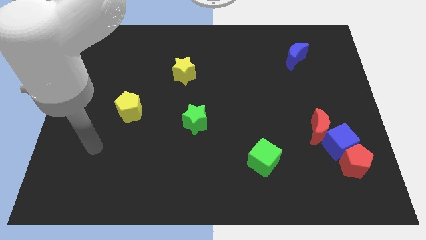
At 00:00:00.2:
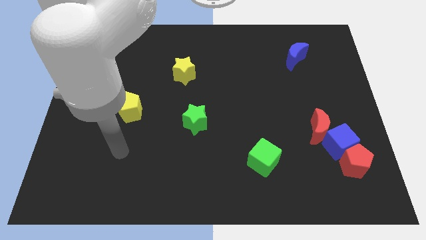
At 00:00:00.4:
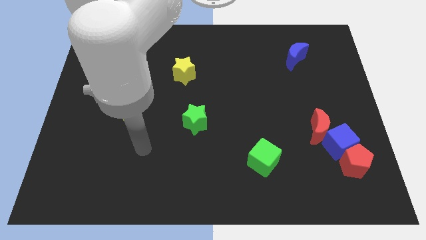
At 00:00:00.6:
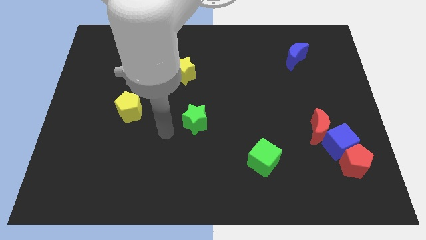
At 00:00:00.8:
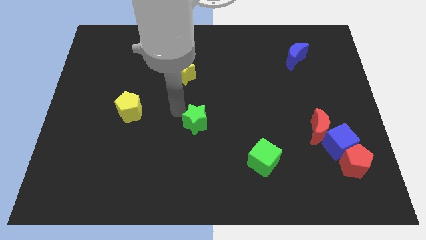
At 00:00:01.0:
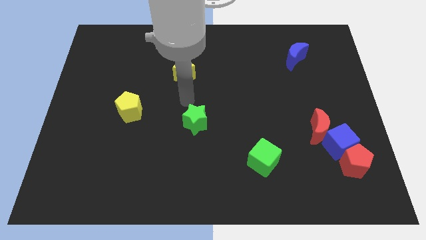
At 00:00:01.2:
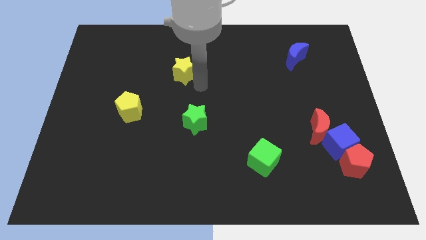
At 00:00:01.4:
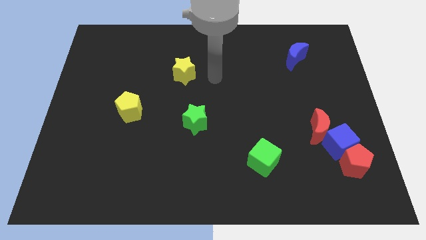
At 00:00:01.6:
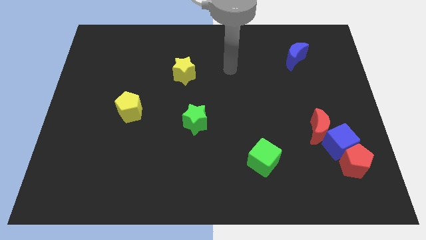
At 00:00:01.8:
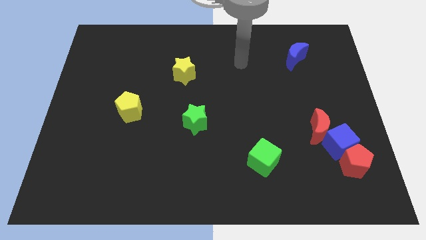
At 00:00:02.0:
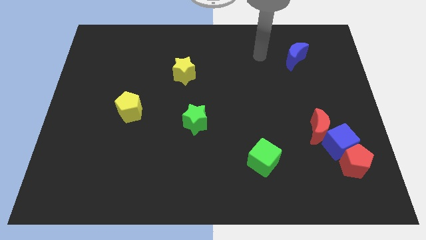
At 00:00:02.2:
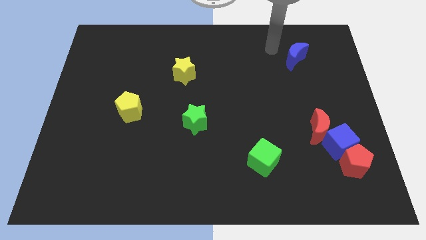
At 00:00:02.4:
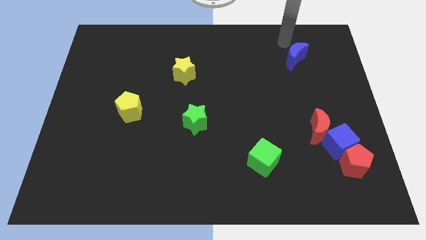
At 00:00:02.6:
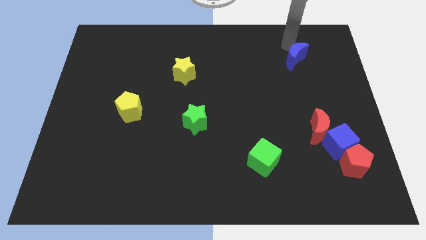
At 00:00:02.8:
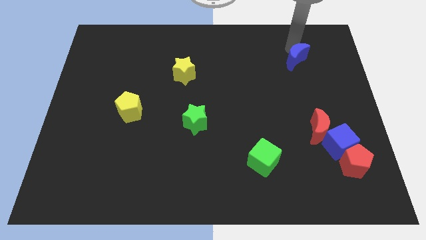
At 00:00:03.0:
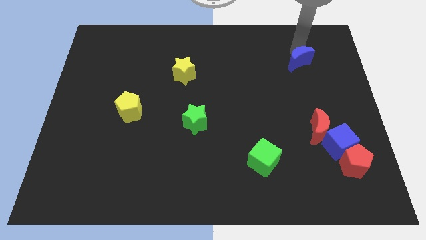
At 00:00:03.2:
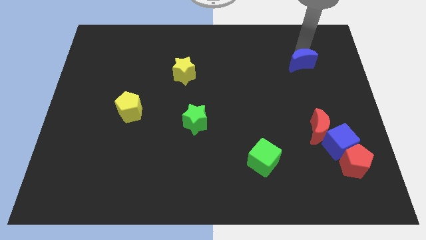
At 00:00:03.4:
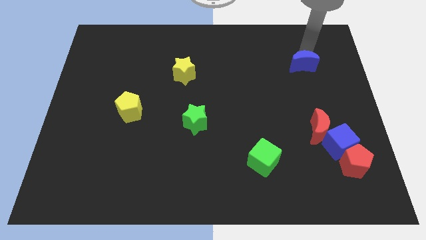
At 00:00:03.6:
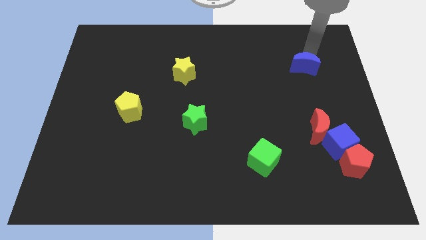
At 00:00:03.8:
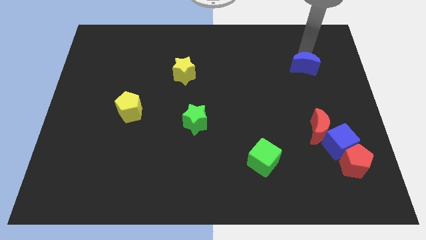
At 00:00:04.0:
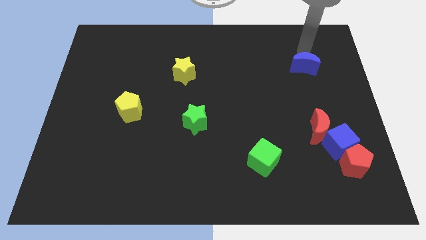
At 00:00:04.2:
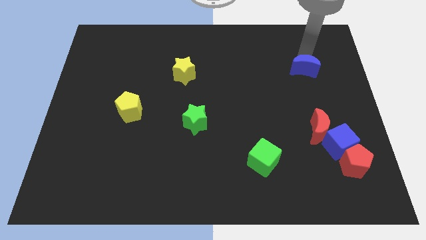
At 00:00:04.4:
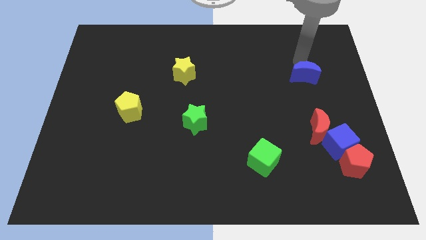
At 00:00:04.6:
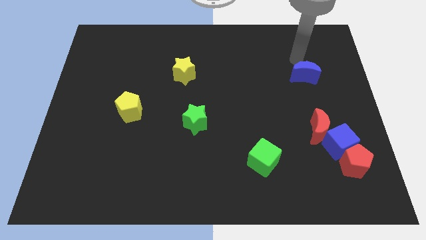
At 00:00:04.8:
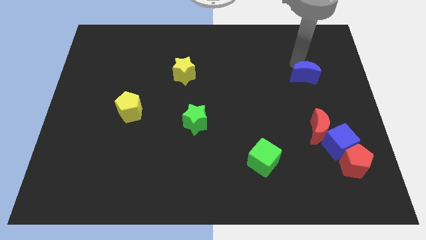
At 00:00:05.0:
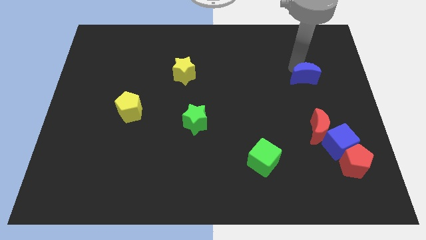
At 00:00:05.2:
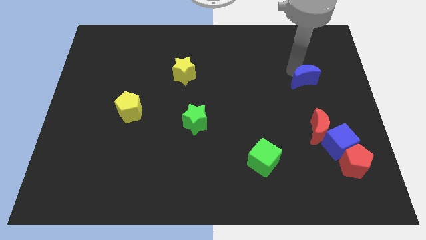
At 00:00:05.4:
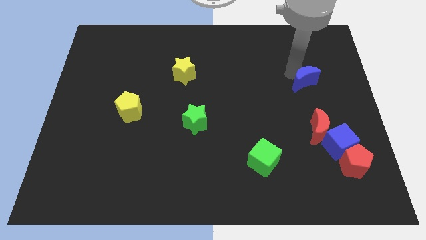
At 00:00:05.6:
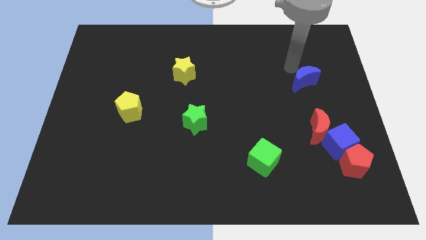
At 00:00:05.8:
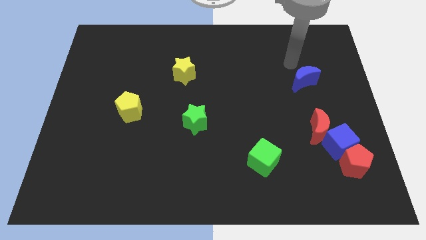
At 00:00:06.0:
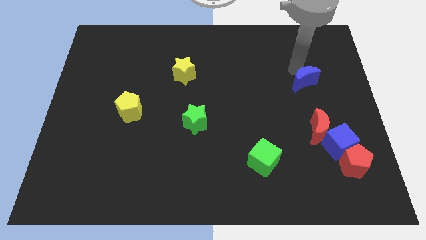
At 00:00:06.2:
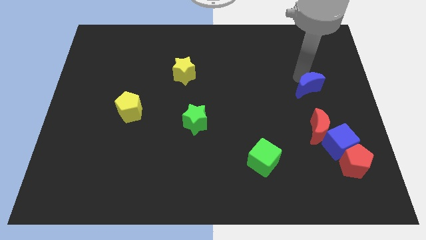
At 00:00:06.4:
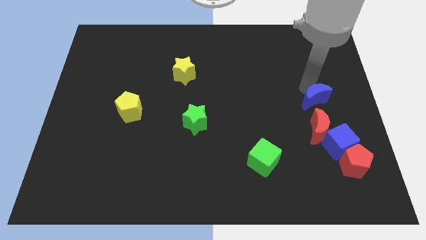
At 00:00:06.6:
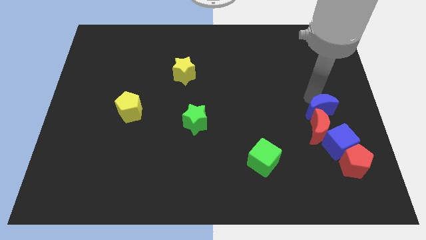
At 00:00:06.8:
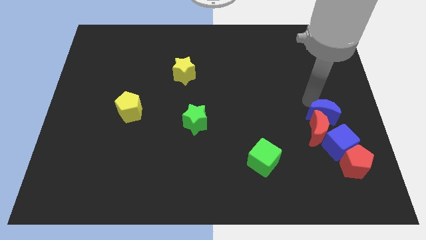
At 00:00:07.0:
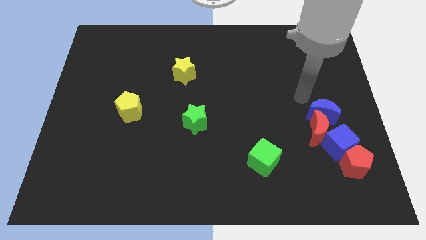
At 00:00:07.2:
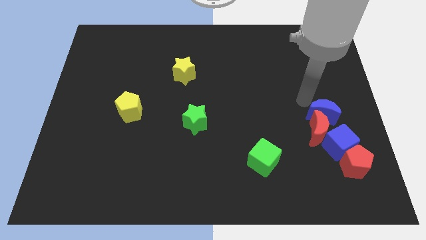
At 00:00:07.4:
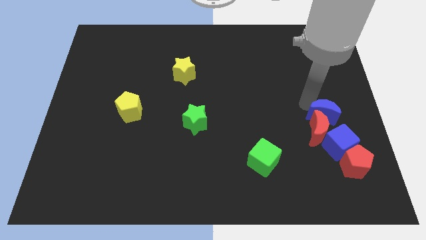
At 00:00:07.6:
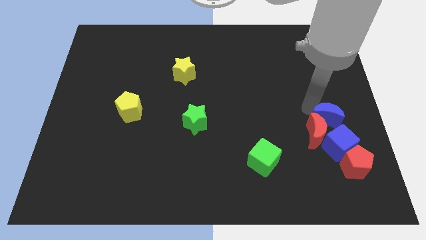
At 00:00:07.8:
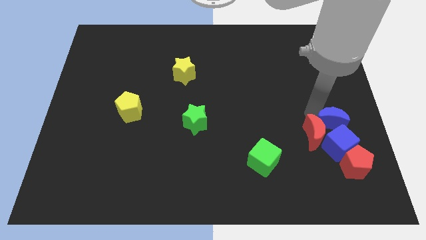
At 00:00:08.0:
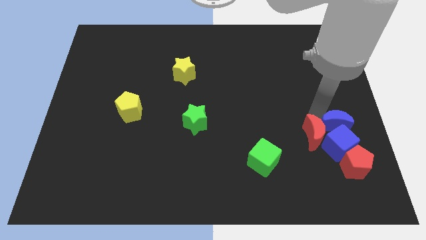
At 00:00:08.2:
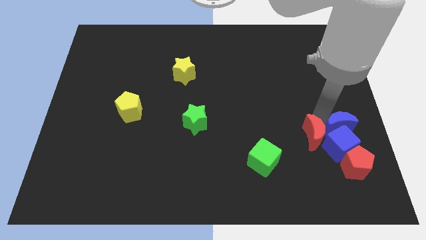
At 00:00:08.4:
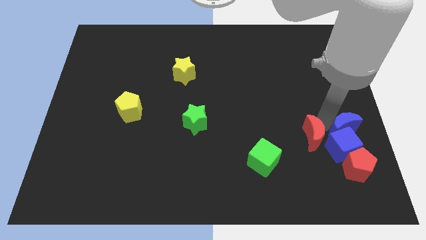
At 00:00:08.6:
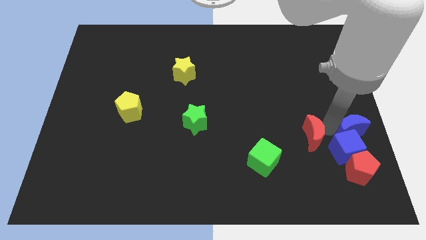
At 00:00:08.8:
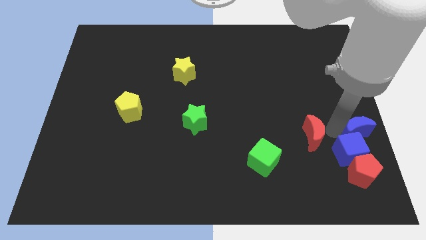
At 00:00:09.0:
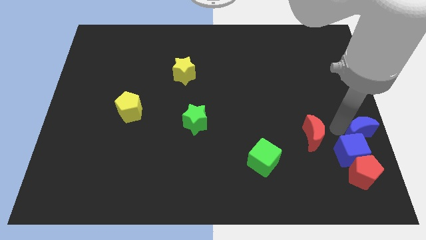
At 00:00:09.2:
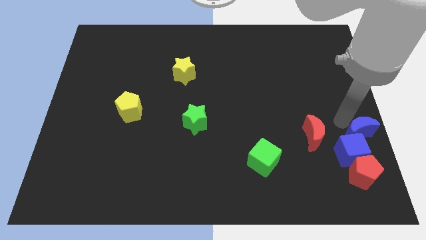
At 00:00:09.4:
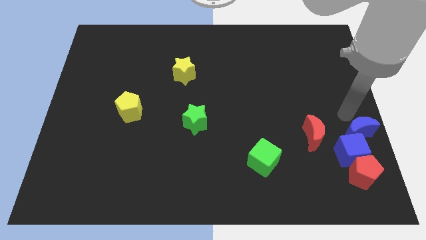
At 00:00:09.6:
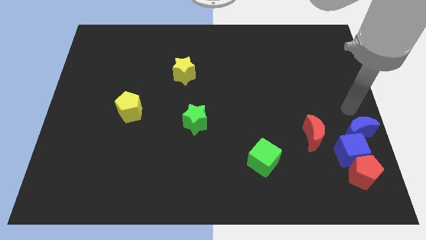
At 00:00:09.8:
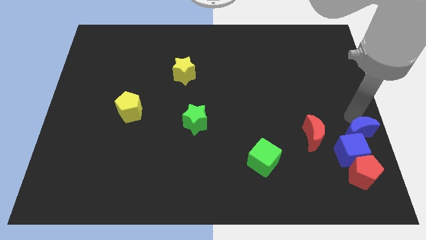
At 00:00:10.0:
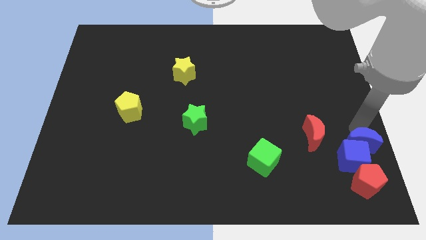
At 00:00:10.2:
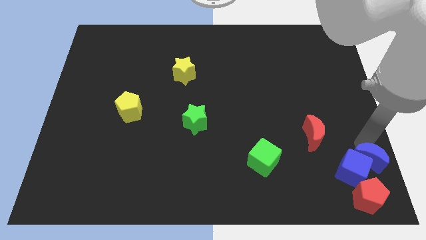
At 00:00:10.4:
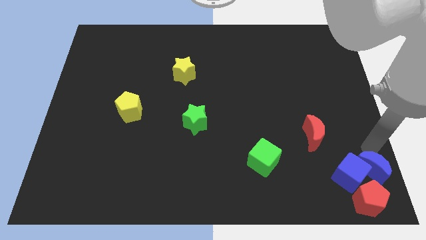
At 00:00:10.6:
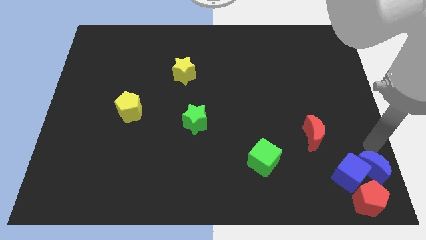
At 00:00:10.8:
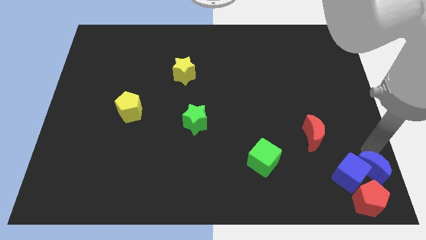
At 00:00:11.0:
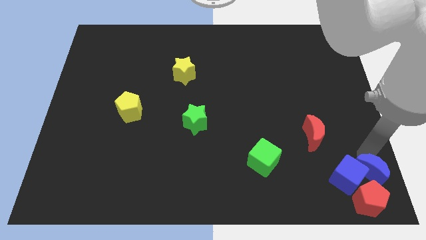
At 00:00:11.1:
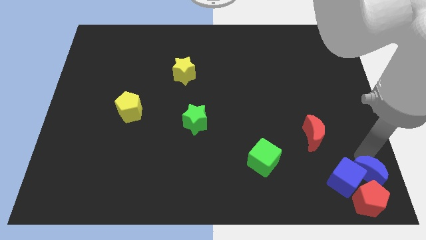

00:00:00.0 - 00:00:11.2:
move the blue moon next to the red pentagon

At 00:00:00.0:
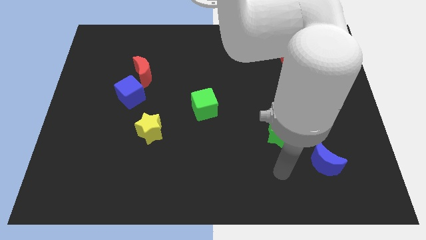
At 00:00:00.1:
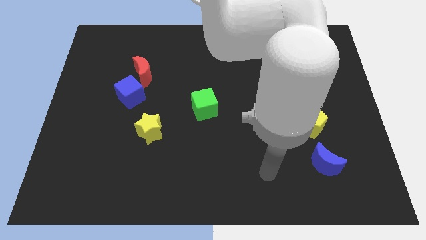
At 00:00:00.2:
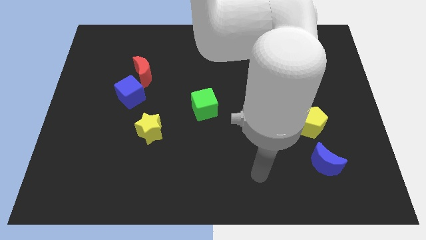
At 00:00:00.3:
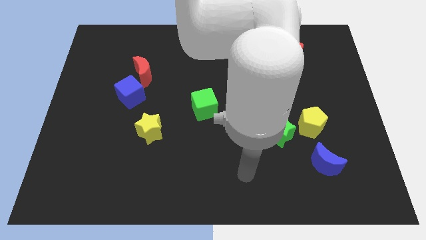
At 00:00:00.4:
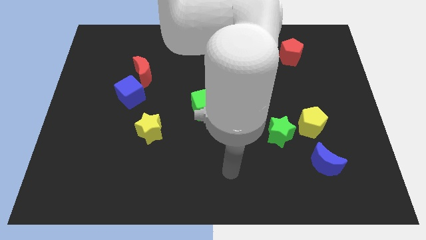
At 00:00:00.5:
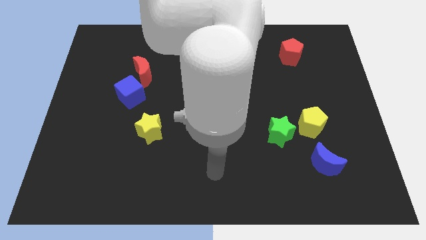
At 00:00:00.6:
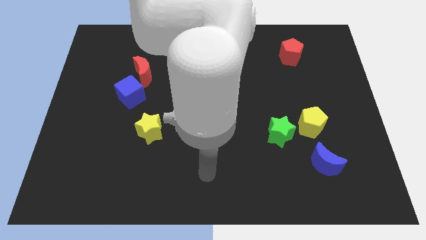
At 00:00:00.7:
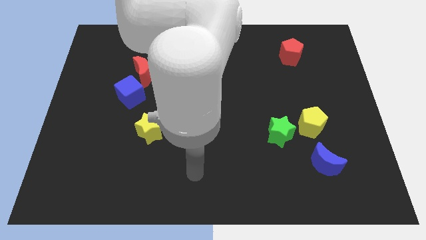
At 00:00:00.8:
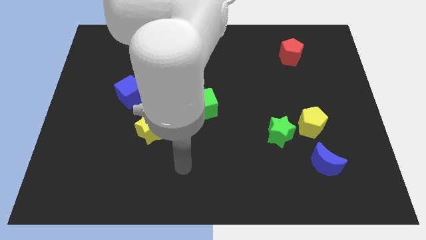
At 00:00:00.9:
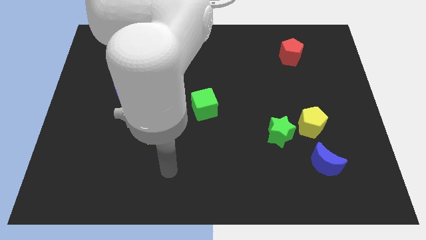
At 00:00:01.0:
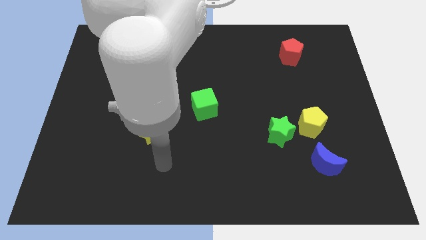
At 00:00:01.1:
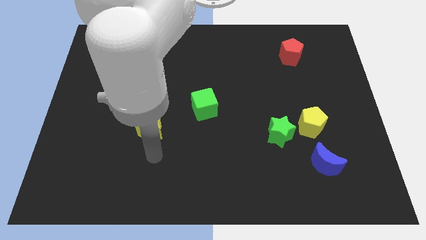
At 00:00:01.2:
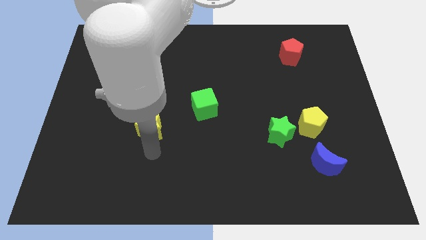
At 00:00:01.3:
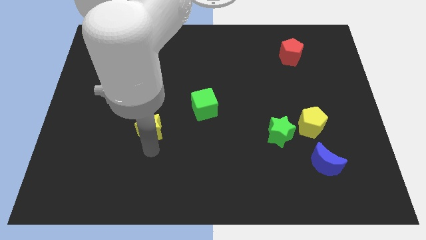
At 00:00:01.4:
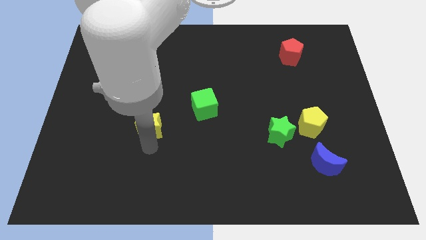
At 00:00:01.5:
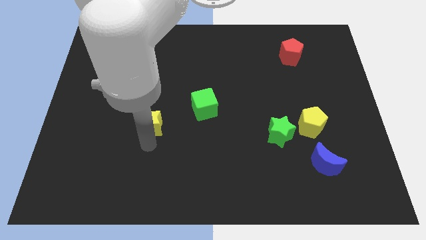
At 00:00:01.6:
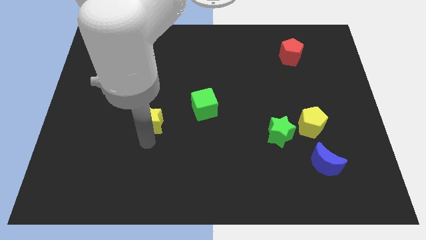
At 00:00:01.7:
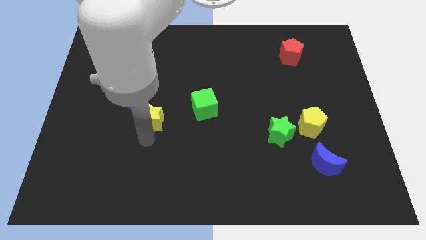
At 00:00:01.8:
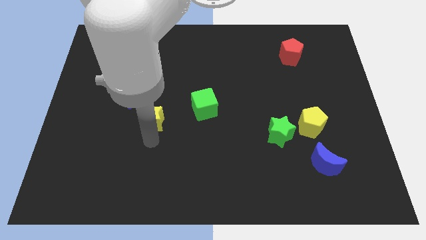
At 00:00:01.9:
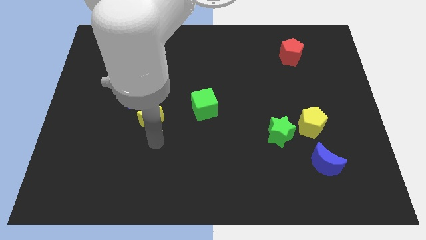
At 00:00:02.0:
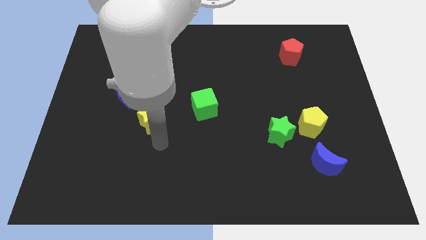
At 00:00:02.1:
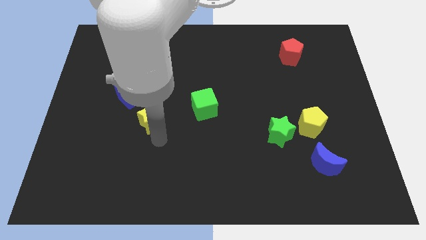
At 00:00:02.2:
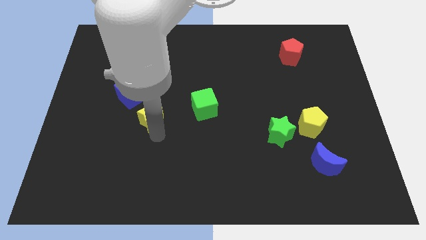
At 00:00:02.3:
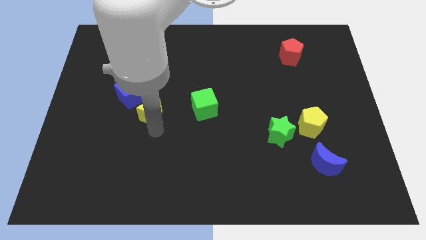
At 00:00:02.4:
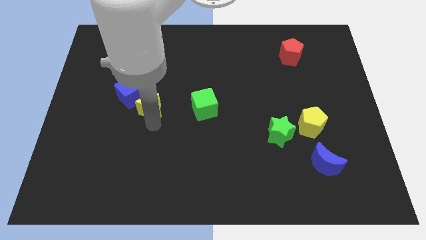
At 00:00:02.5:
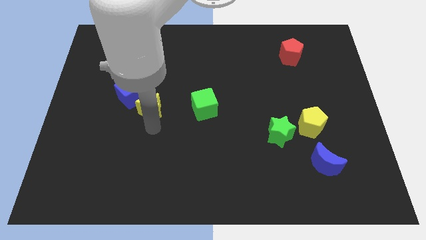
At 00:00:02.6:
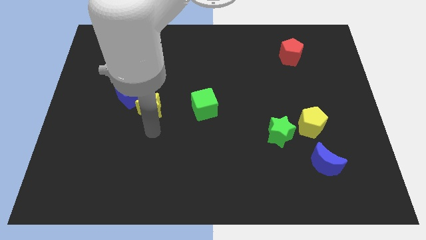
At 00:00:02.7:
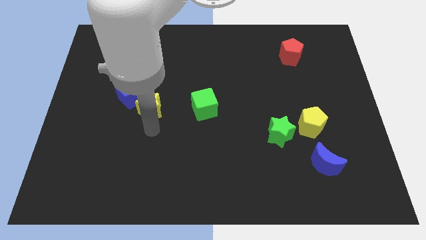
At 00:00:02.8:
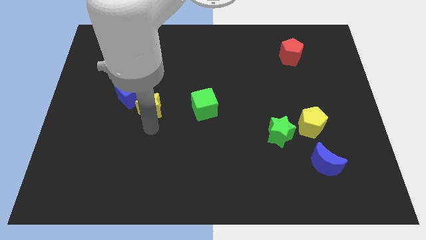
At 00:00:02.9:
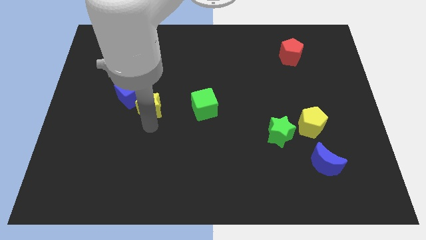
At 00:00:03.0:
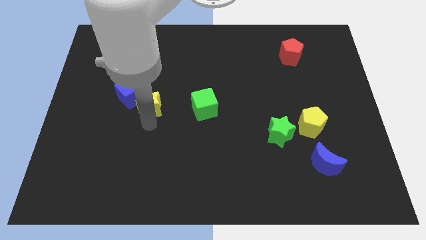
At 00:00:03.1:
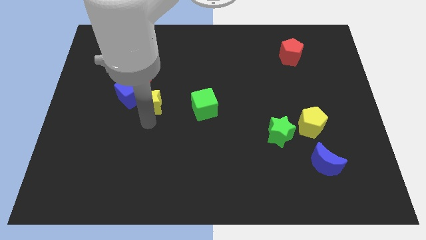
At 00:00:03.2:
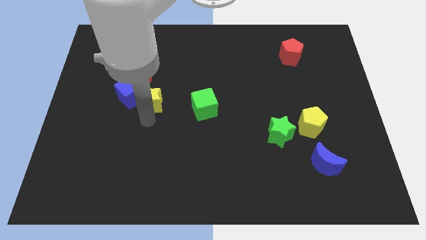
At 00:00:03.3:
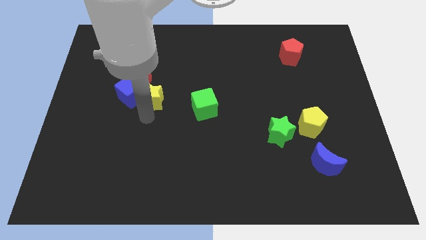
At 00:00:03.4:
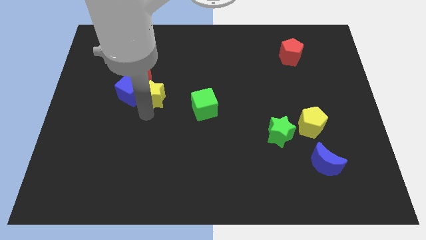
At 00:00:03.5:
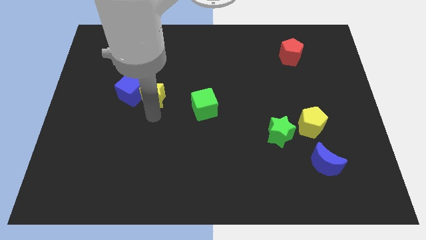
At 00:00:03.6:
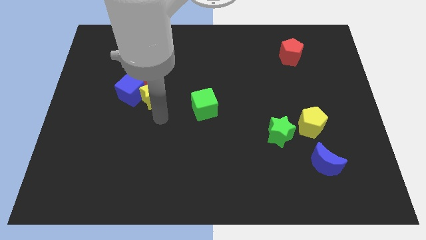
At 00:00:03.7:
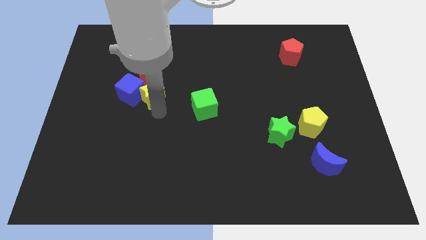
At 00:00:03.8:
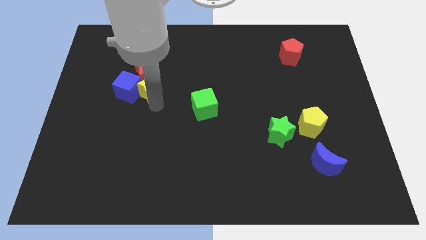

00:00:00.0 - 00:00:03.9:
put the yellow star next to the red moon
